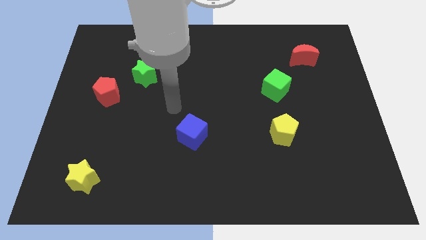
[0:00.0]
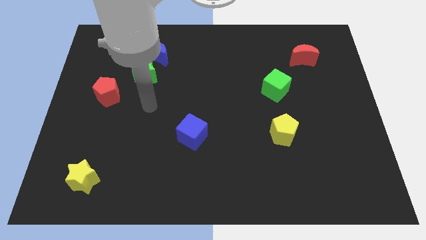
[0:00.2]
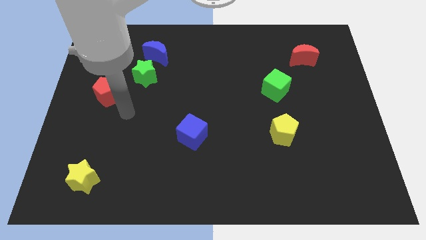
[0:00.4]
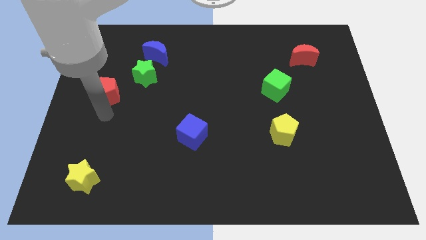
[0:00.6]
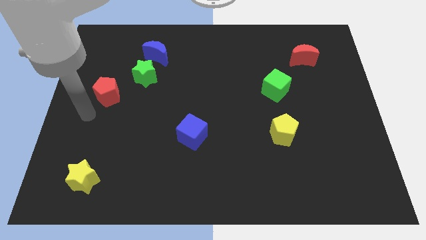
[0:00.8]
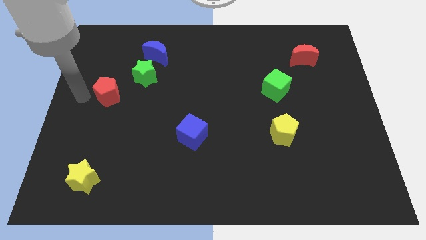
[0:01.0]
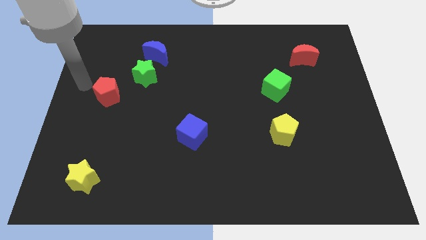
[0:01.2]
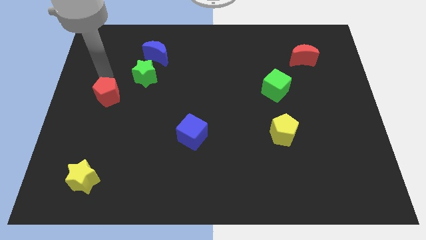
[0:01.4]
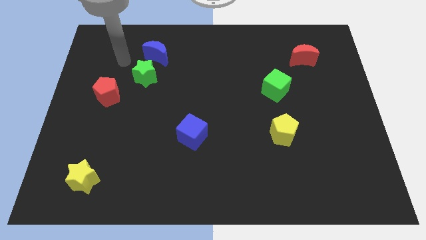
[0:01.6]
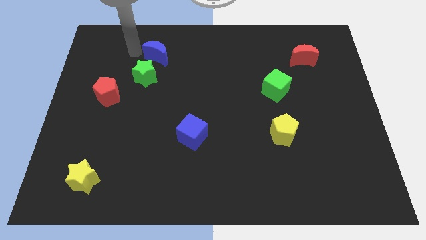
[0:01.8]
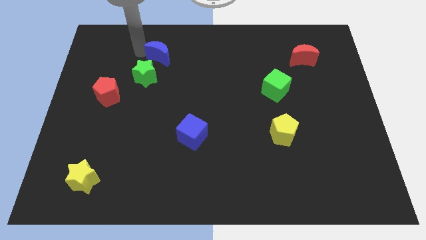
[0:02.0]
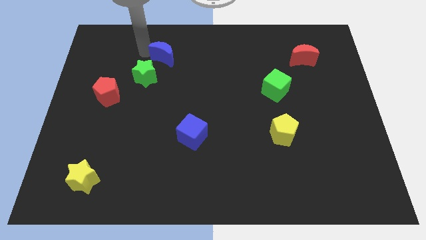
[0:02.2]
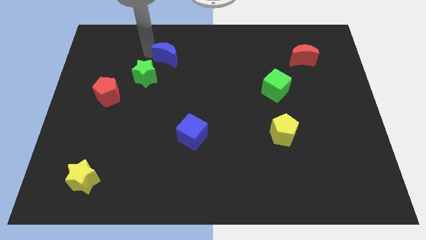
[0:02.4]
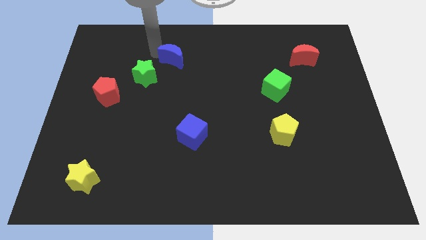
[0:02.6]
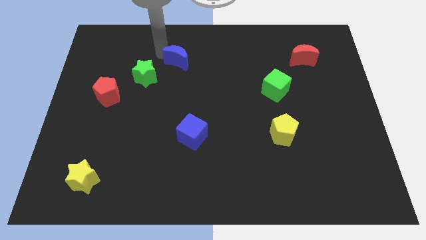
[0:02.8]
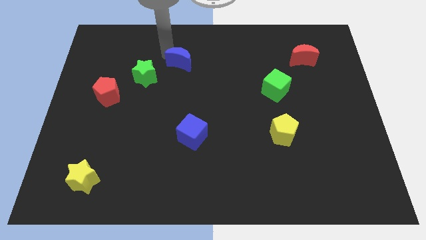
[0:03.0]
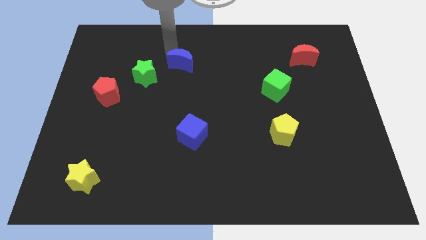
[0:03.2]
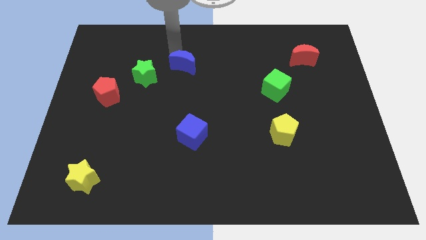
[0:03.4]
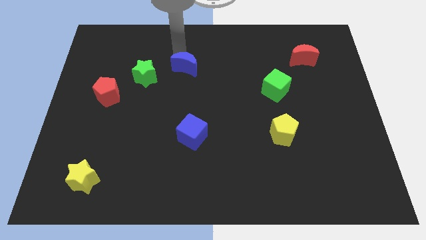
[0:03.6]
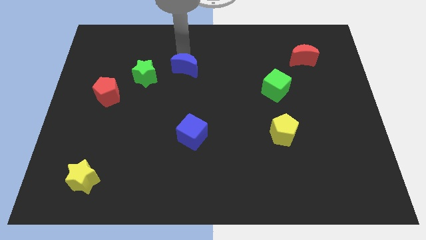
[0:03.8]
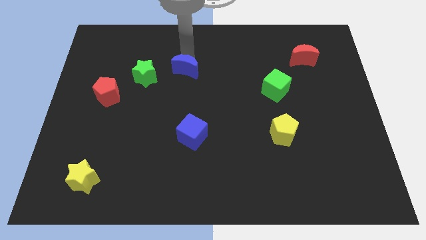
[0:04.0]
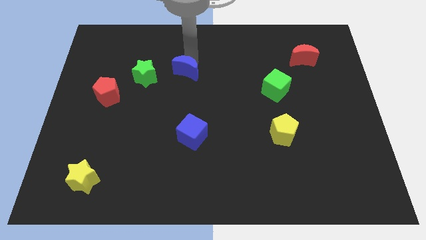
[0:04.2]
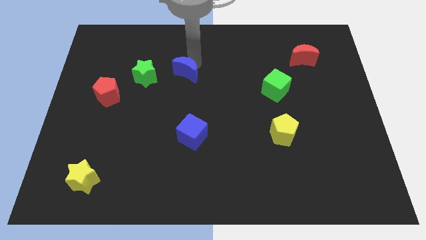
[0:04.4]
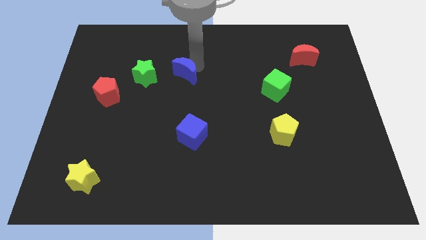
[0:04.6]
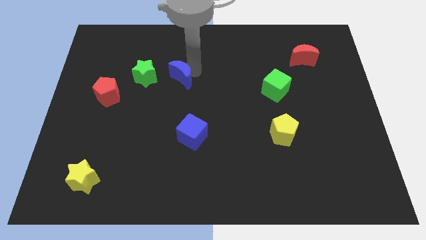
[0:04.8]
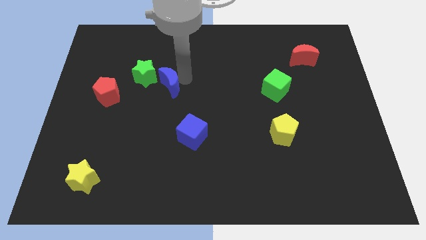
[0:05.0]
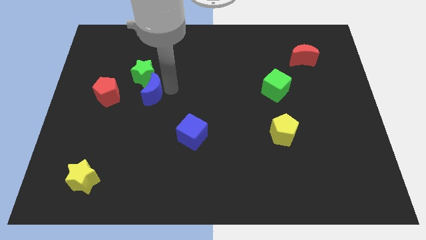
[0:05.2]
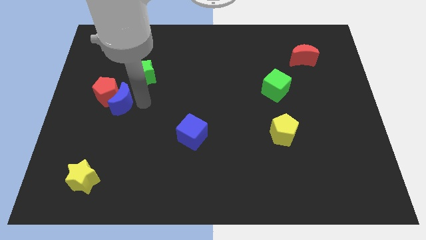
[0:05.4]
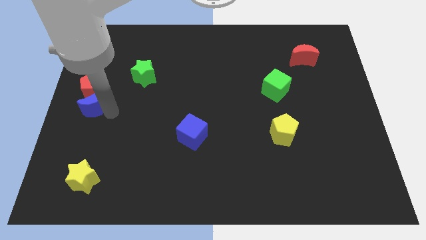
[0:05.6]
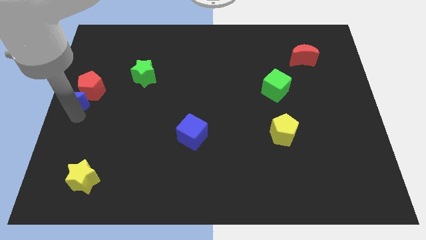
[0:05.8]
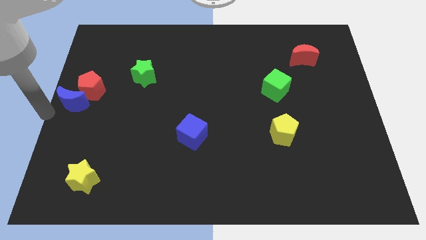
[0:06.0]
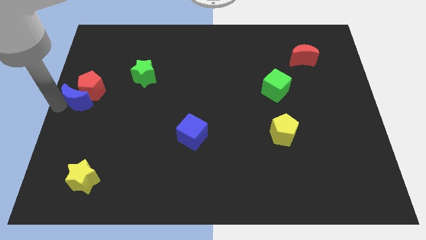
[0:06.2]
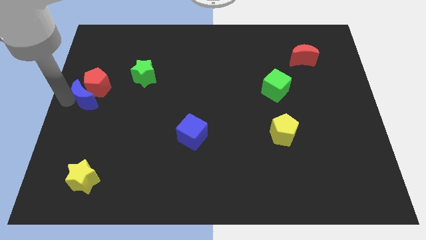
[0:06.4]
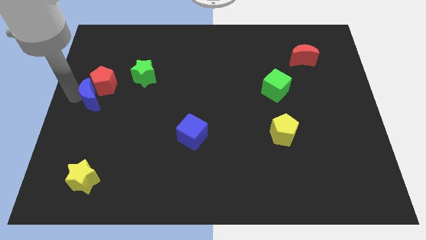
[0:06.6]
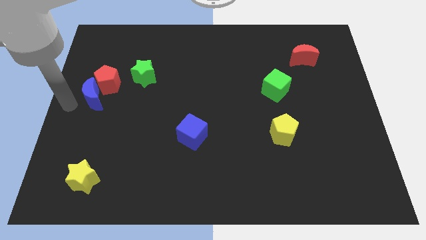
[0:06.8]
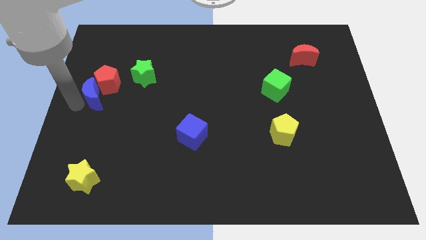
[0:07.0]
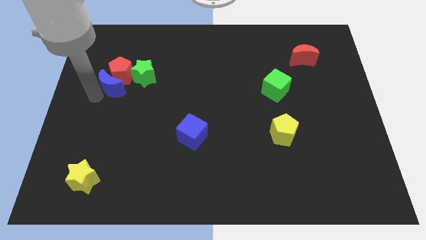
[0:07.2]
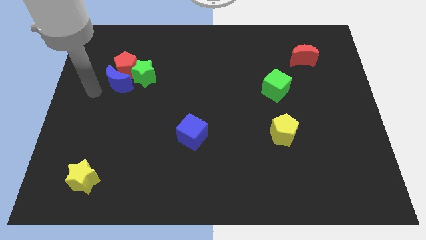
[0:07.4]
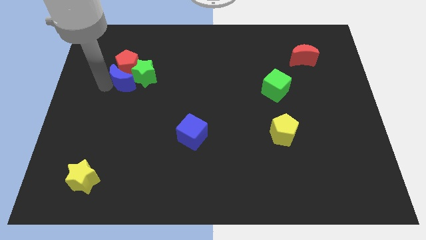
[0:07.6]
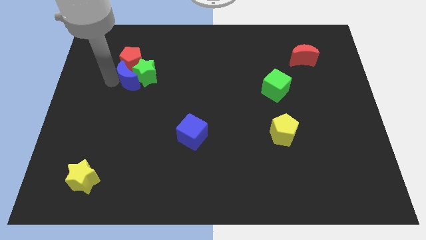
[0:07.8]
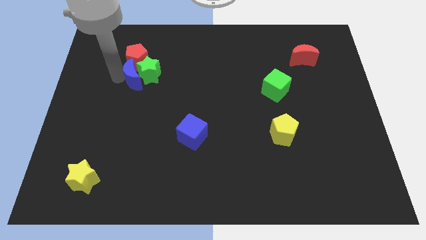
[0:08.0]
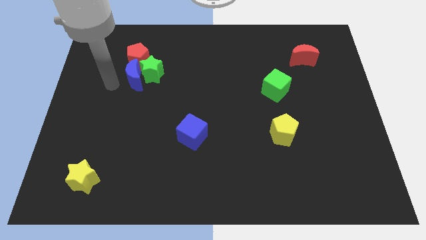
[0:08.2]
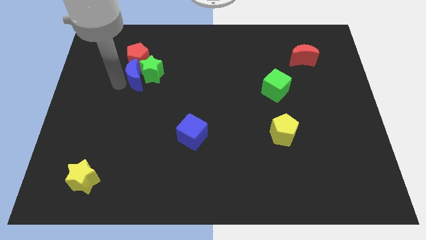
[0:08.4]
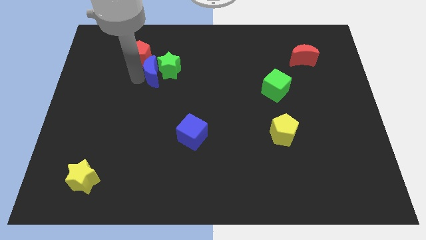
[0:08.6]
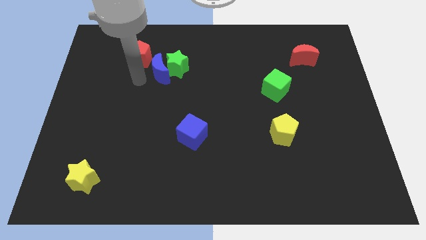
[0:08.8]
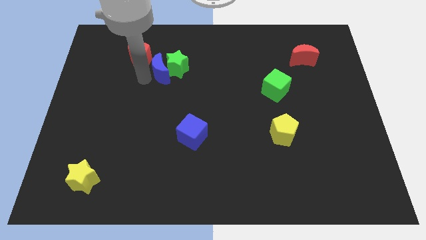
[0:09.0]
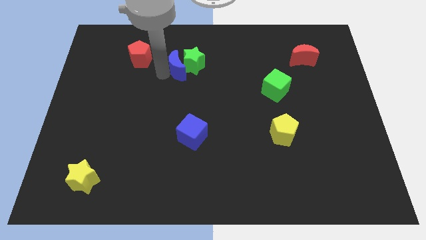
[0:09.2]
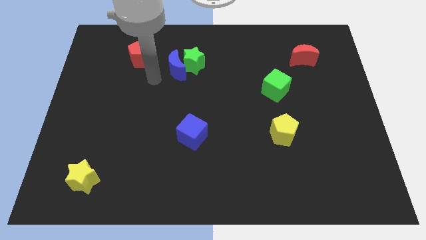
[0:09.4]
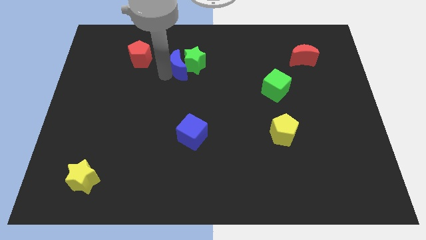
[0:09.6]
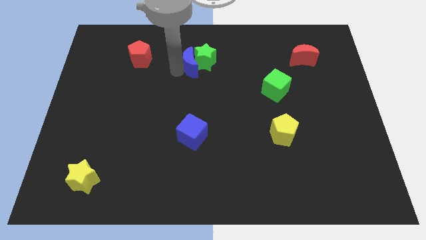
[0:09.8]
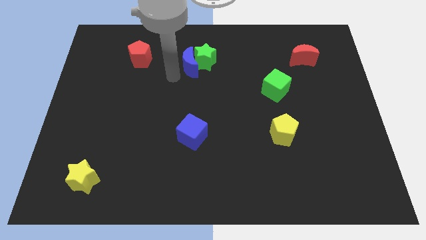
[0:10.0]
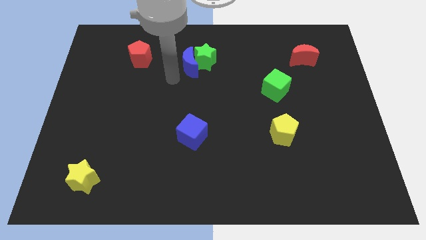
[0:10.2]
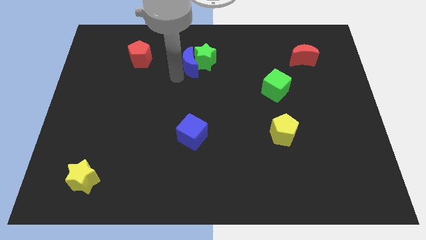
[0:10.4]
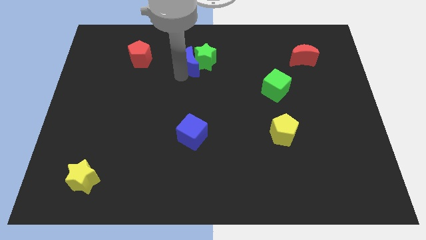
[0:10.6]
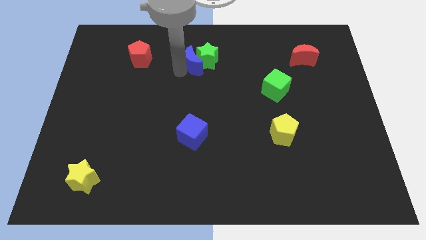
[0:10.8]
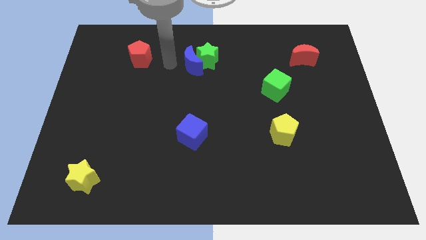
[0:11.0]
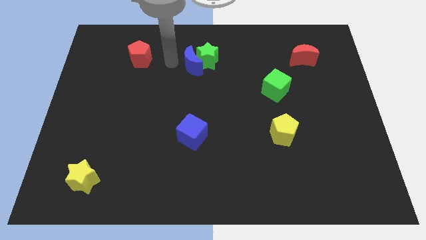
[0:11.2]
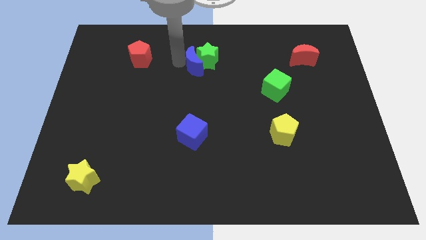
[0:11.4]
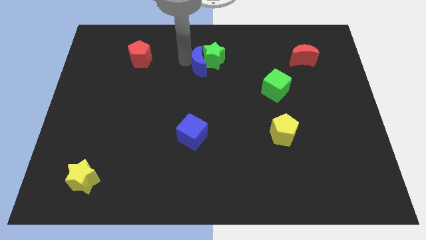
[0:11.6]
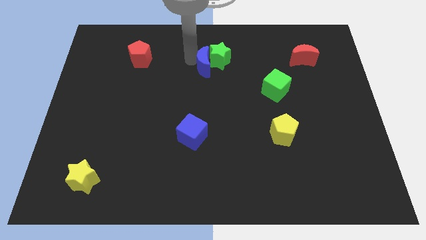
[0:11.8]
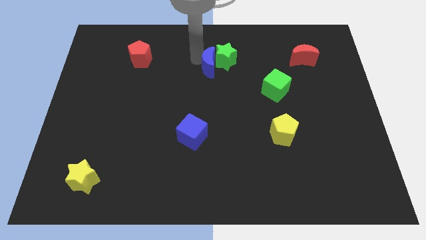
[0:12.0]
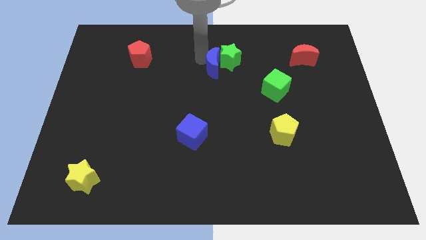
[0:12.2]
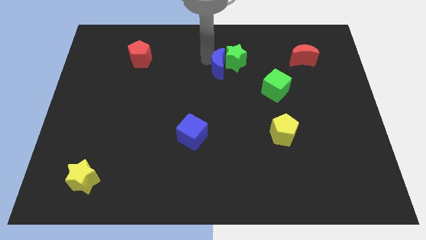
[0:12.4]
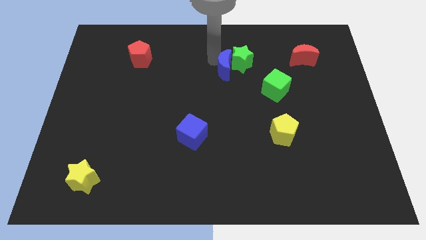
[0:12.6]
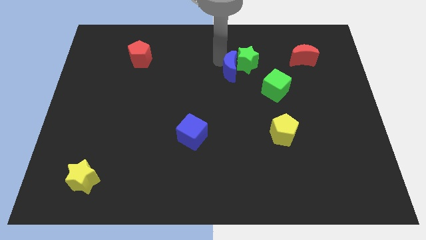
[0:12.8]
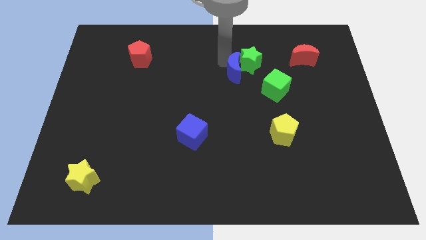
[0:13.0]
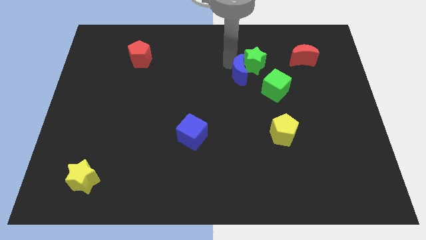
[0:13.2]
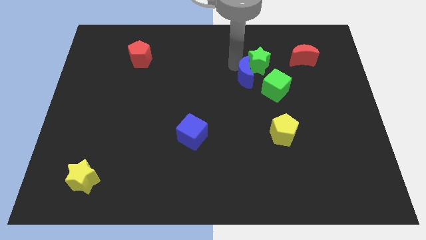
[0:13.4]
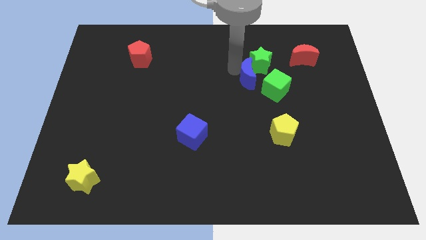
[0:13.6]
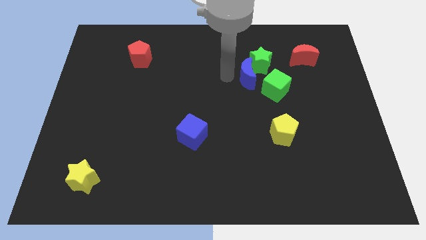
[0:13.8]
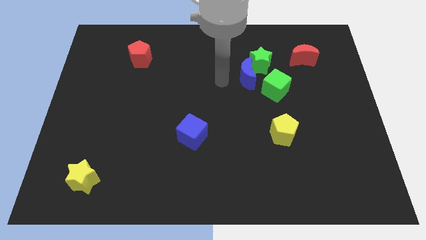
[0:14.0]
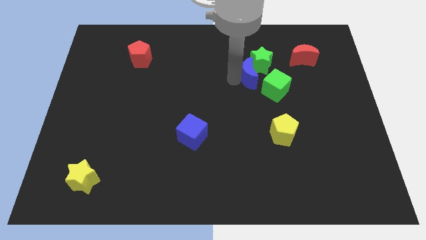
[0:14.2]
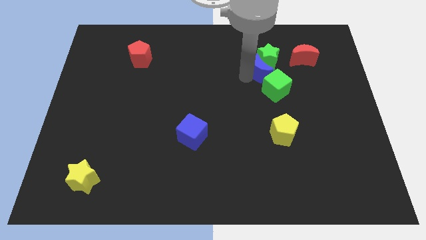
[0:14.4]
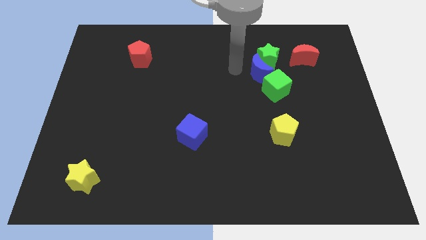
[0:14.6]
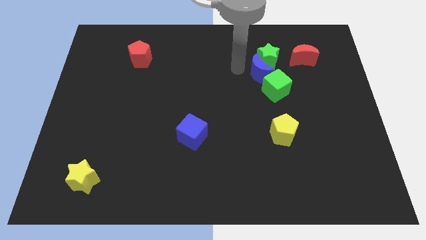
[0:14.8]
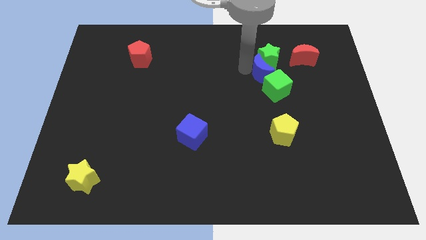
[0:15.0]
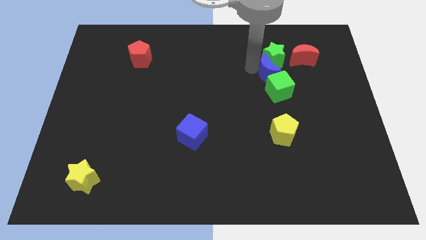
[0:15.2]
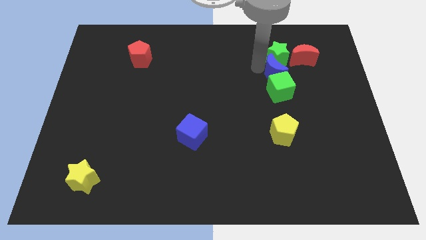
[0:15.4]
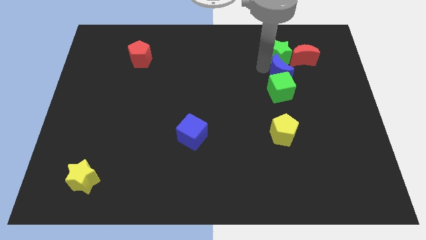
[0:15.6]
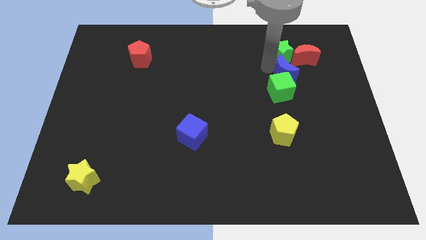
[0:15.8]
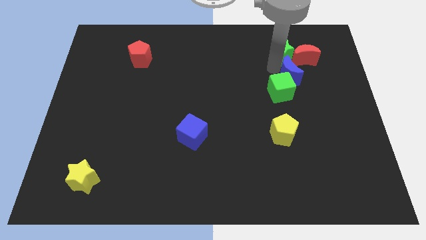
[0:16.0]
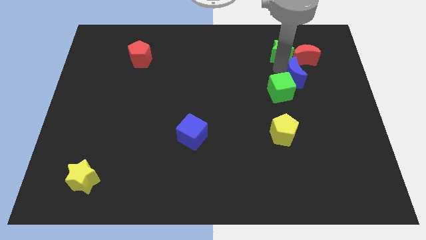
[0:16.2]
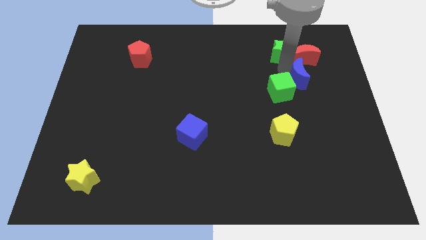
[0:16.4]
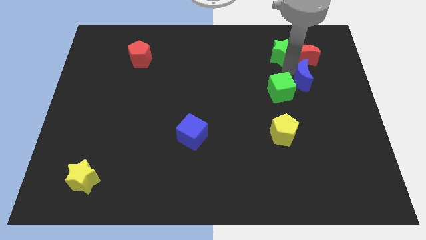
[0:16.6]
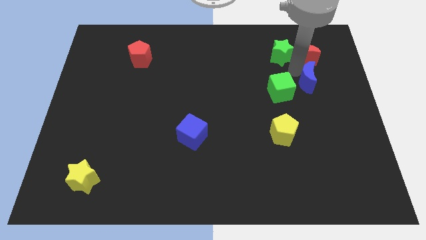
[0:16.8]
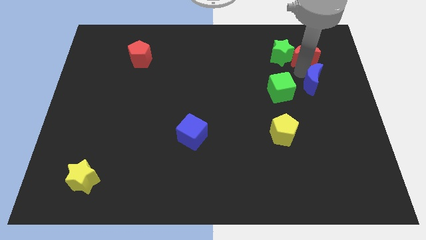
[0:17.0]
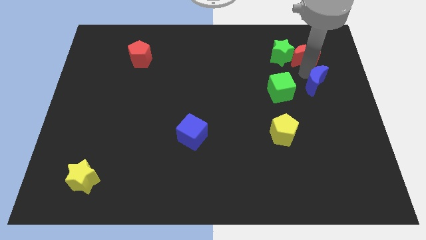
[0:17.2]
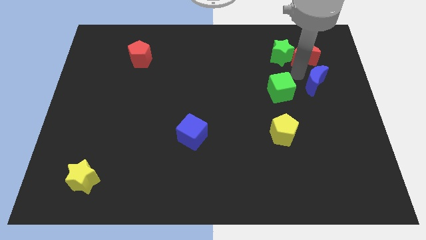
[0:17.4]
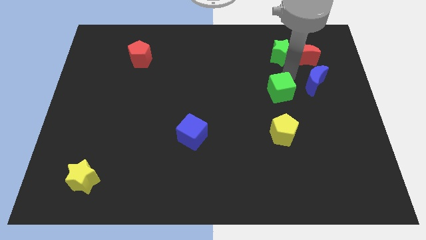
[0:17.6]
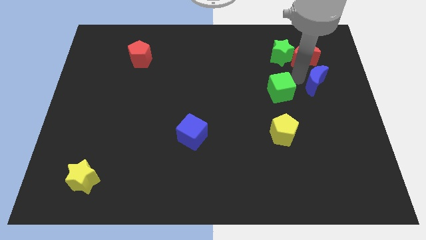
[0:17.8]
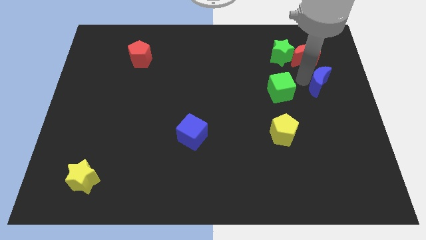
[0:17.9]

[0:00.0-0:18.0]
put the blue moon to the right side
